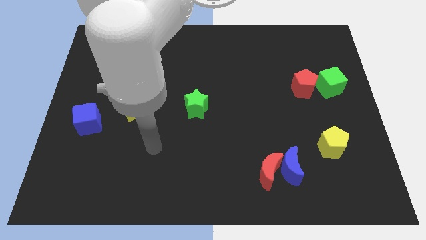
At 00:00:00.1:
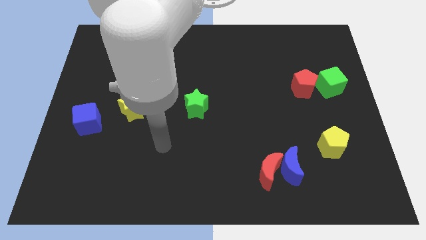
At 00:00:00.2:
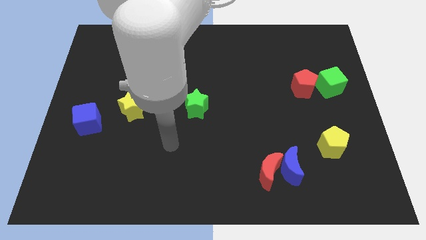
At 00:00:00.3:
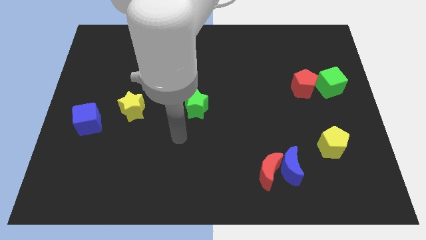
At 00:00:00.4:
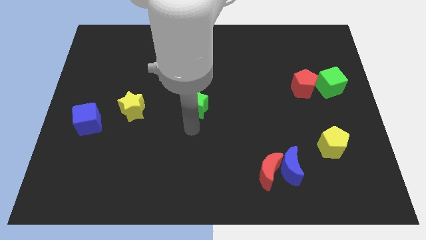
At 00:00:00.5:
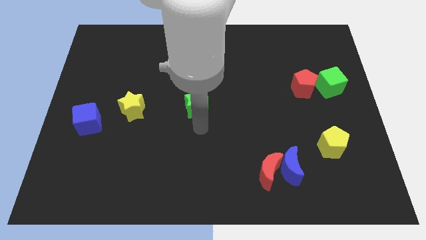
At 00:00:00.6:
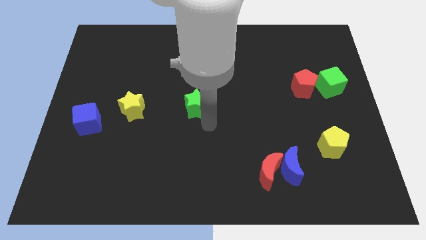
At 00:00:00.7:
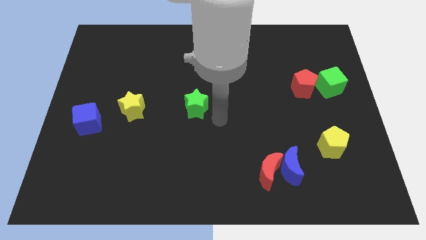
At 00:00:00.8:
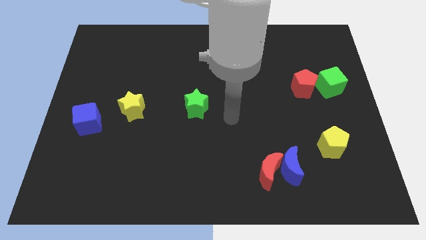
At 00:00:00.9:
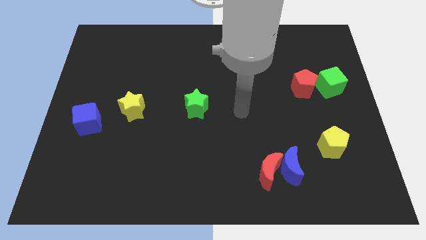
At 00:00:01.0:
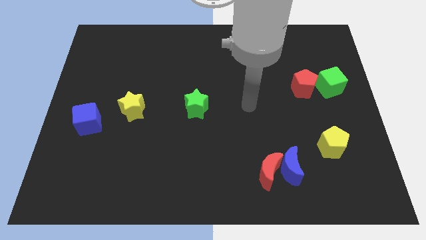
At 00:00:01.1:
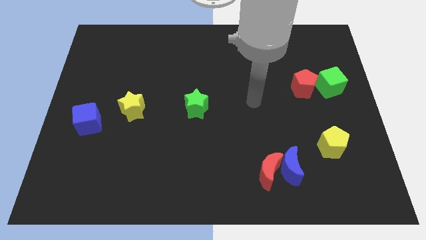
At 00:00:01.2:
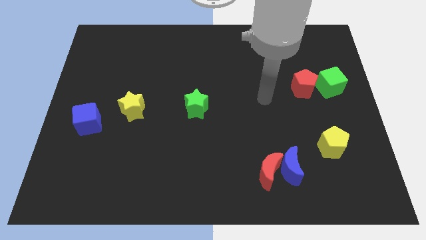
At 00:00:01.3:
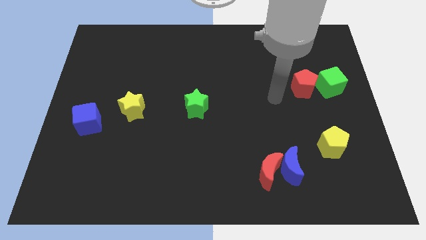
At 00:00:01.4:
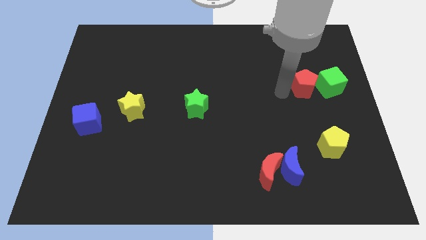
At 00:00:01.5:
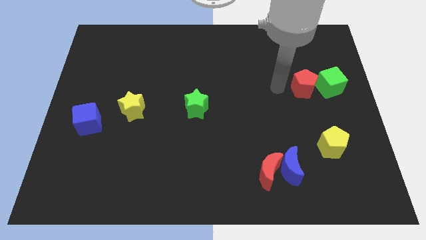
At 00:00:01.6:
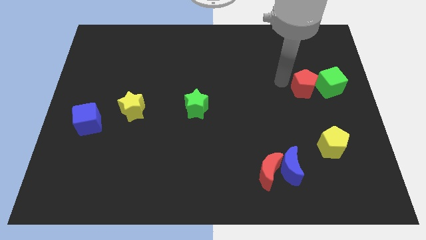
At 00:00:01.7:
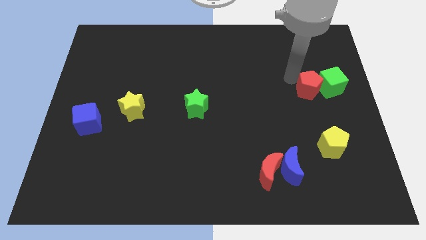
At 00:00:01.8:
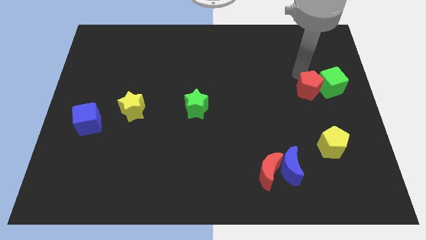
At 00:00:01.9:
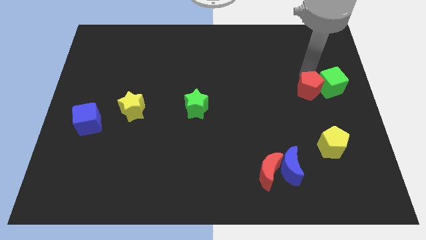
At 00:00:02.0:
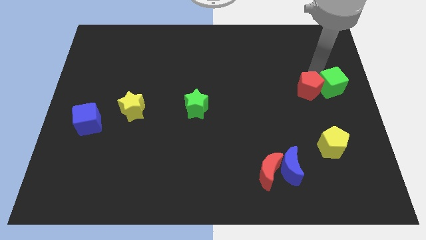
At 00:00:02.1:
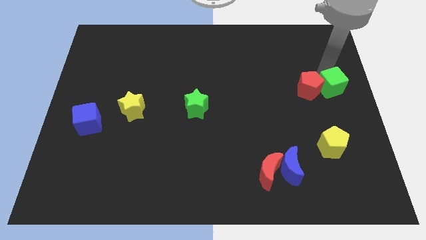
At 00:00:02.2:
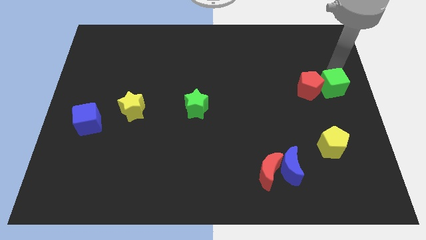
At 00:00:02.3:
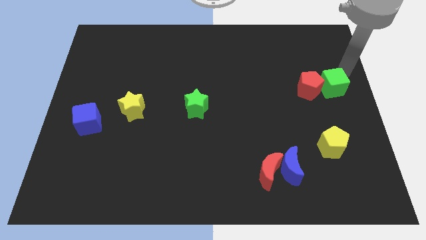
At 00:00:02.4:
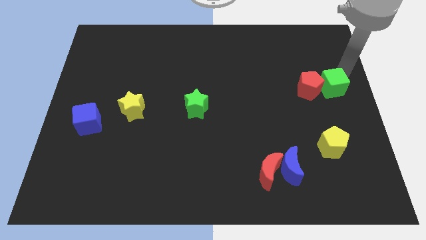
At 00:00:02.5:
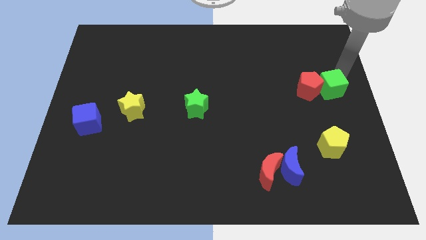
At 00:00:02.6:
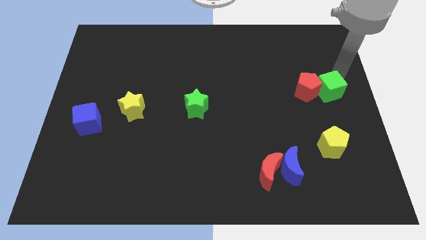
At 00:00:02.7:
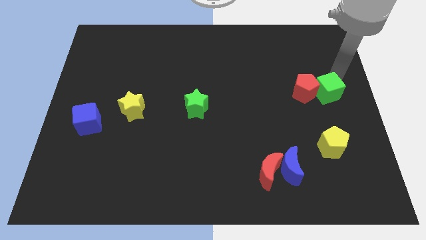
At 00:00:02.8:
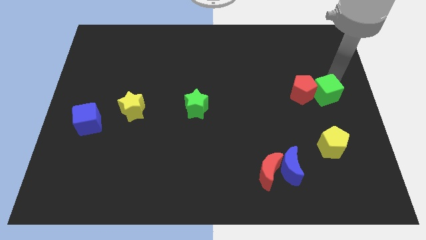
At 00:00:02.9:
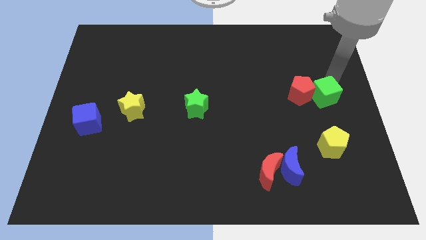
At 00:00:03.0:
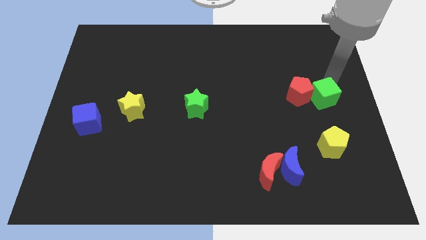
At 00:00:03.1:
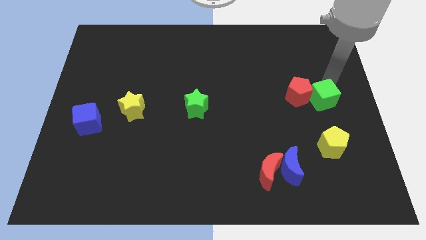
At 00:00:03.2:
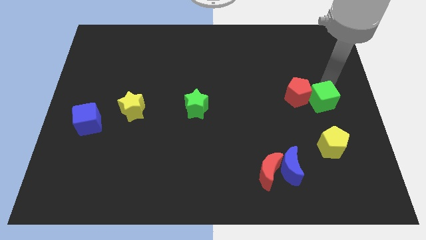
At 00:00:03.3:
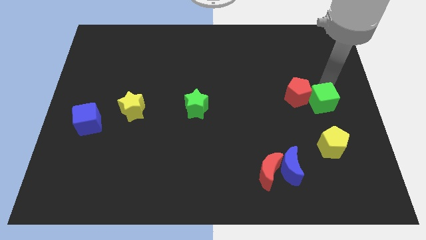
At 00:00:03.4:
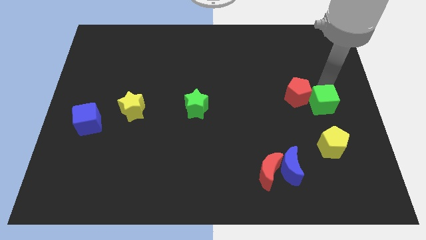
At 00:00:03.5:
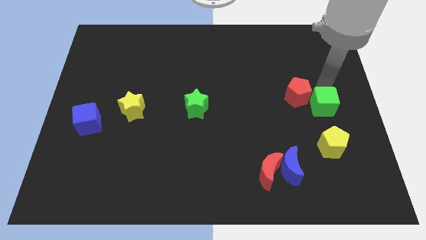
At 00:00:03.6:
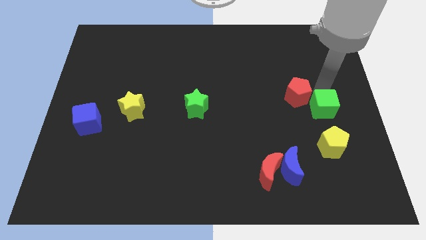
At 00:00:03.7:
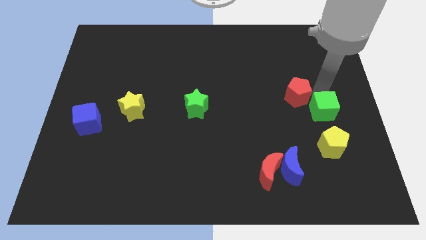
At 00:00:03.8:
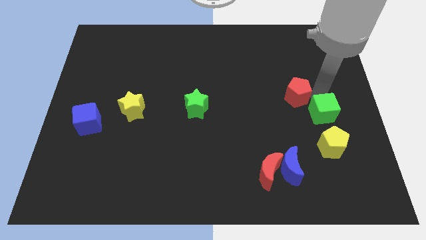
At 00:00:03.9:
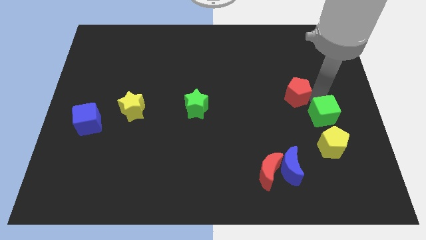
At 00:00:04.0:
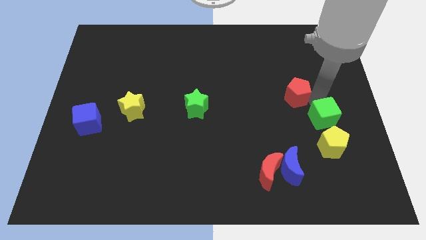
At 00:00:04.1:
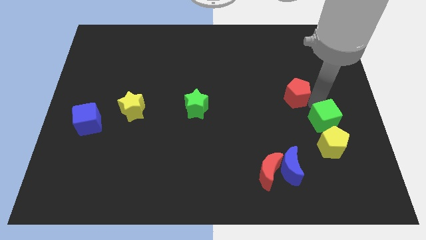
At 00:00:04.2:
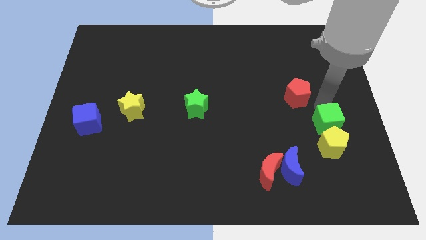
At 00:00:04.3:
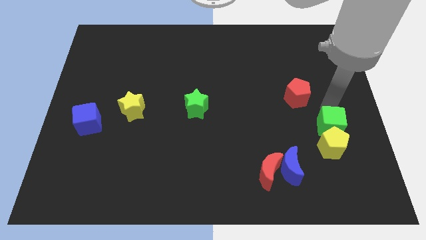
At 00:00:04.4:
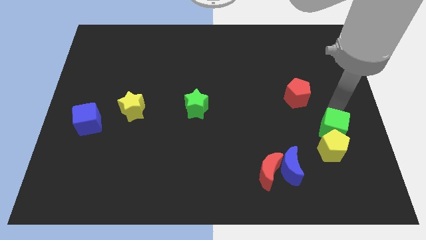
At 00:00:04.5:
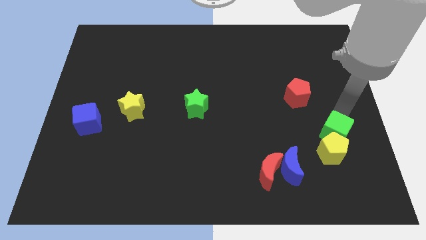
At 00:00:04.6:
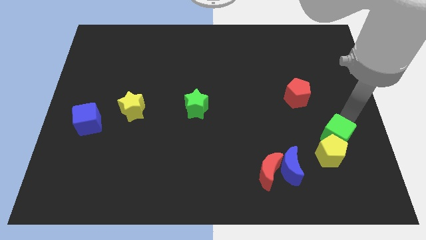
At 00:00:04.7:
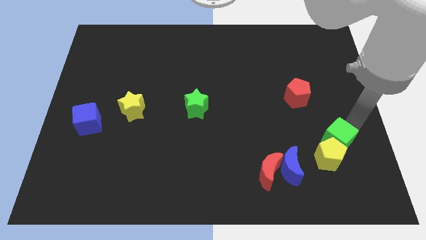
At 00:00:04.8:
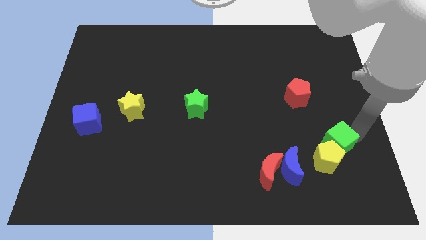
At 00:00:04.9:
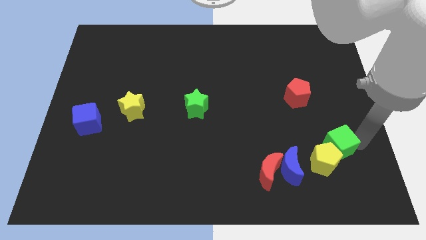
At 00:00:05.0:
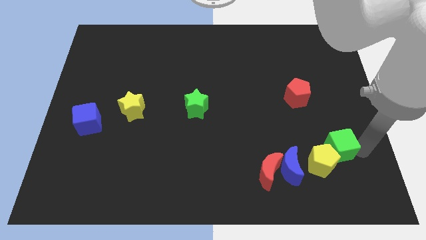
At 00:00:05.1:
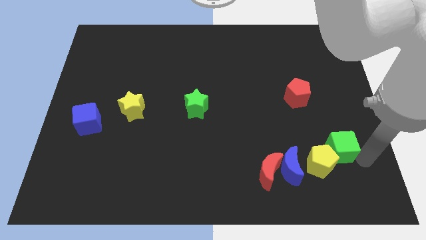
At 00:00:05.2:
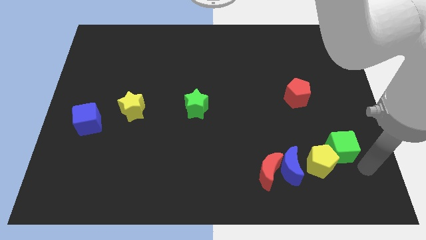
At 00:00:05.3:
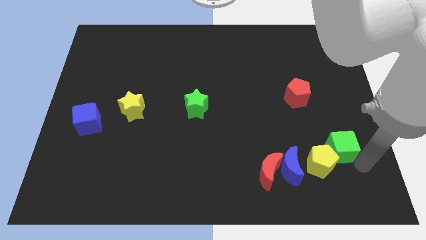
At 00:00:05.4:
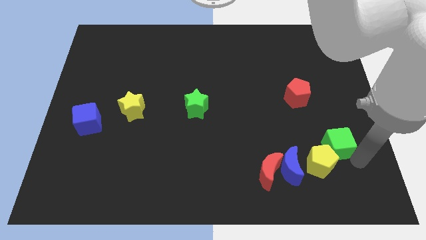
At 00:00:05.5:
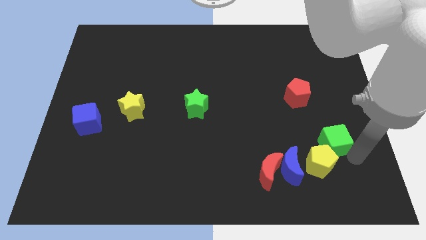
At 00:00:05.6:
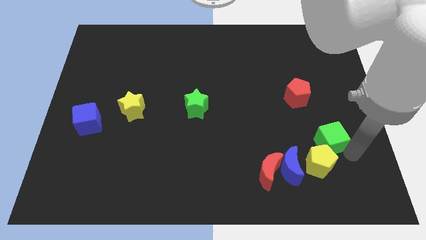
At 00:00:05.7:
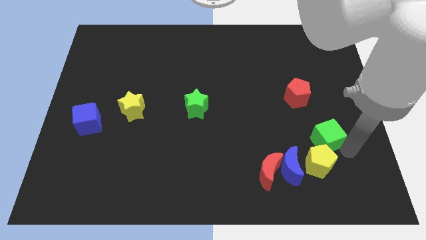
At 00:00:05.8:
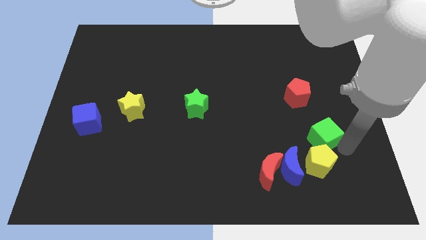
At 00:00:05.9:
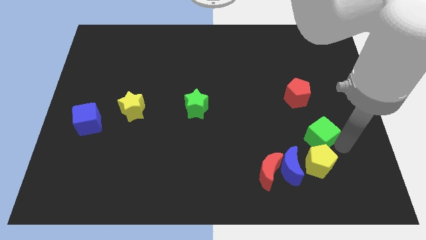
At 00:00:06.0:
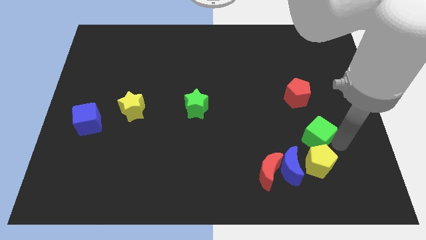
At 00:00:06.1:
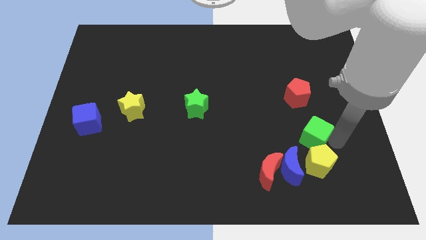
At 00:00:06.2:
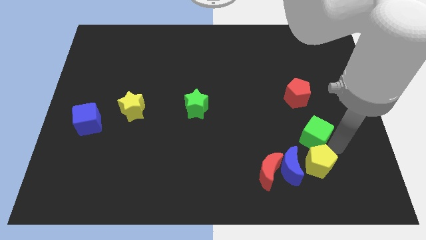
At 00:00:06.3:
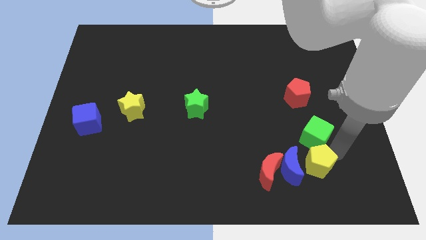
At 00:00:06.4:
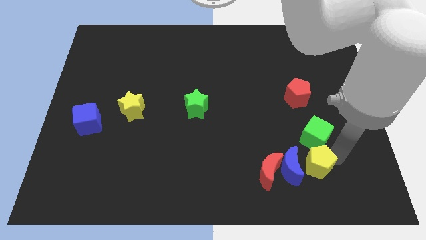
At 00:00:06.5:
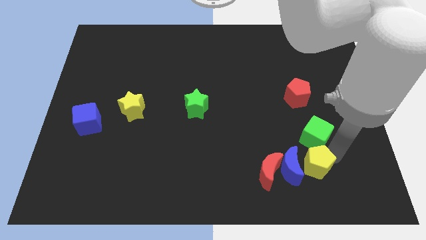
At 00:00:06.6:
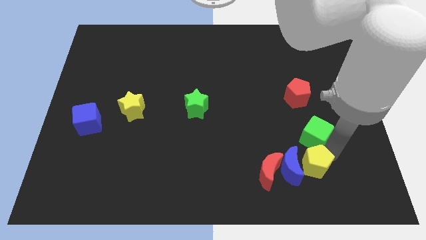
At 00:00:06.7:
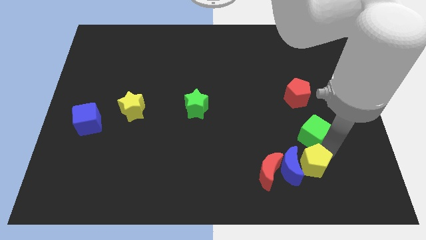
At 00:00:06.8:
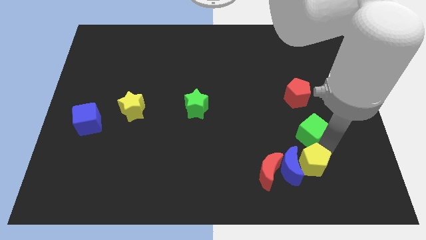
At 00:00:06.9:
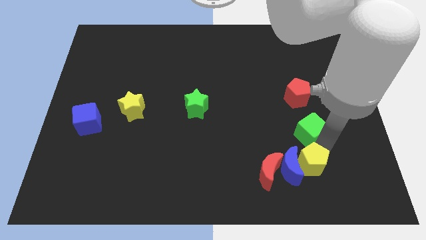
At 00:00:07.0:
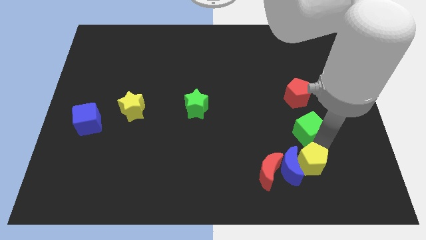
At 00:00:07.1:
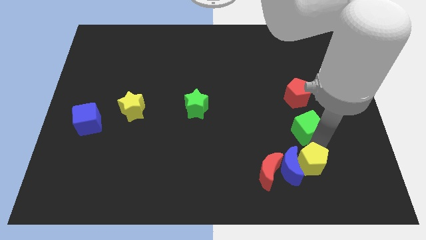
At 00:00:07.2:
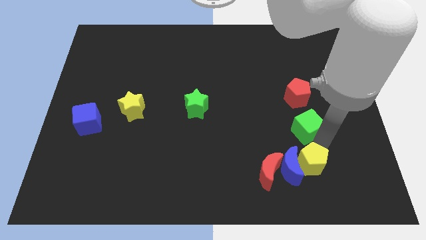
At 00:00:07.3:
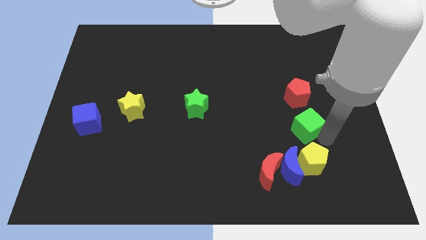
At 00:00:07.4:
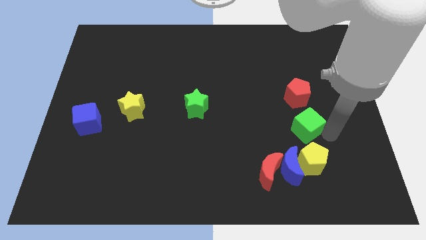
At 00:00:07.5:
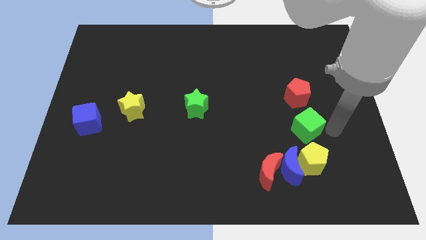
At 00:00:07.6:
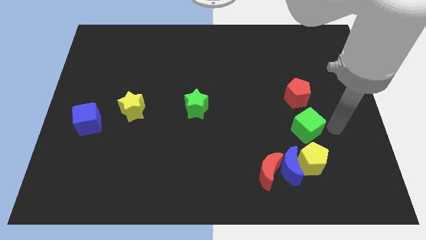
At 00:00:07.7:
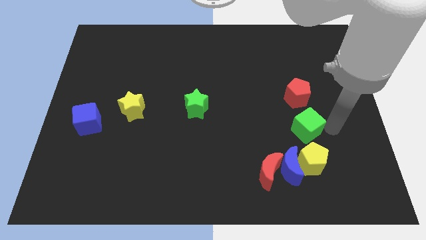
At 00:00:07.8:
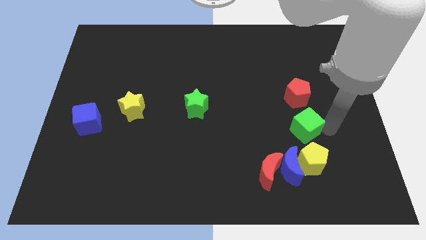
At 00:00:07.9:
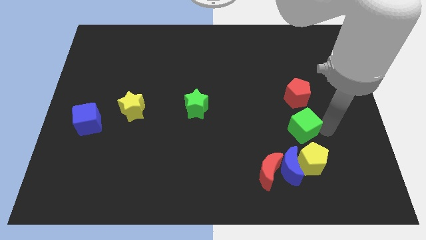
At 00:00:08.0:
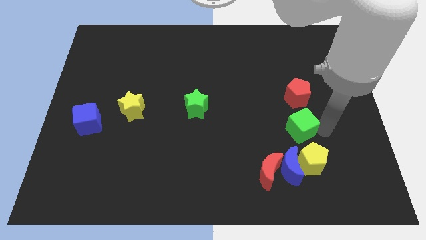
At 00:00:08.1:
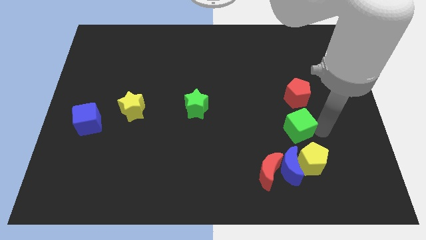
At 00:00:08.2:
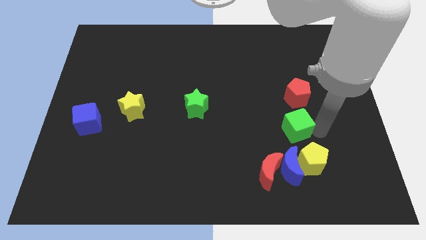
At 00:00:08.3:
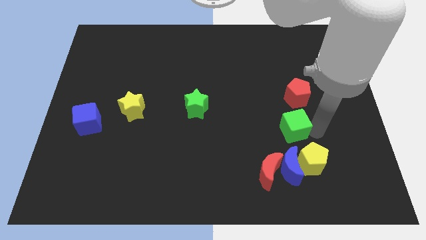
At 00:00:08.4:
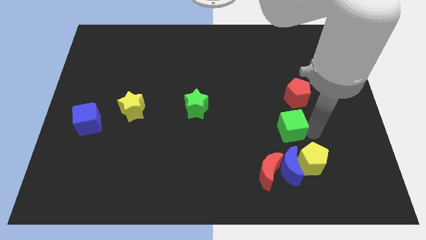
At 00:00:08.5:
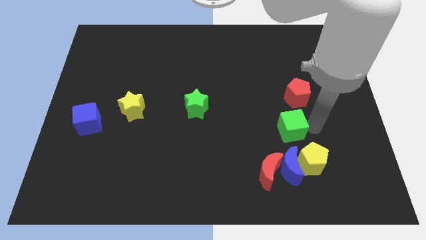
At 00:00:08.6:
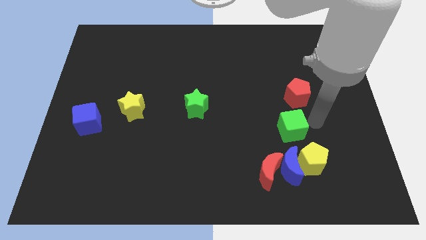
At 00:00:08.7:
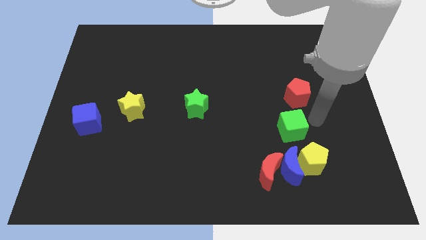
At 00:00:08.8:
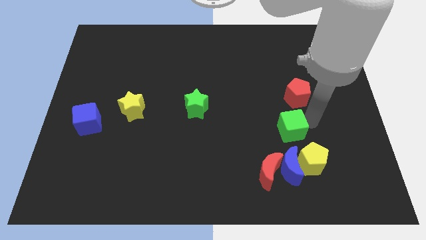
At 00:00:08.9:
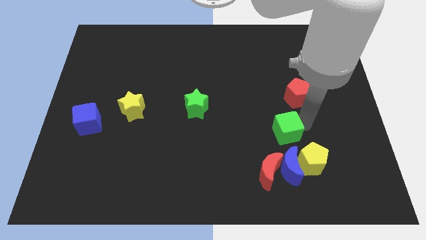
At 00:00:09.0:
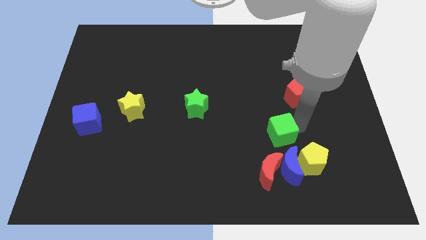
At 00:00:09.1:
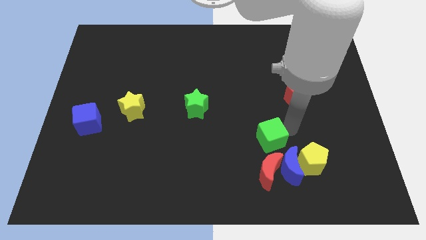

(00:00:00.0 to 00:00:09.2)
move the green cube down and to the left
